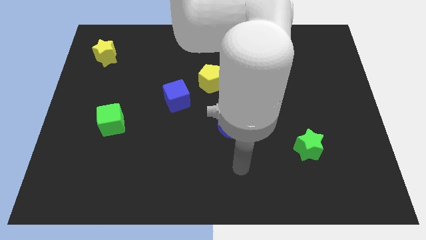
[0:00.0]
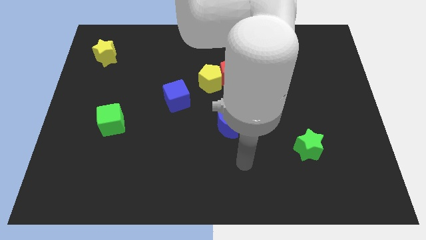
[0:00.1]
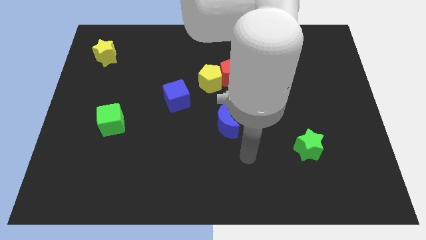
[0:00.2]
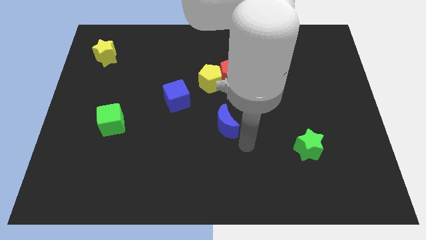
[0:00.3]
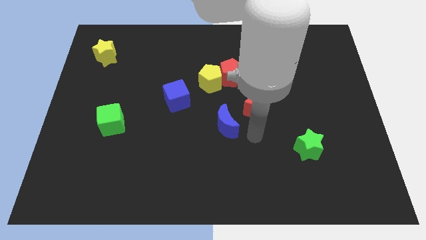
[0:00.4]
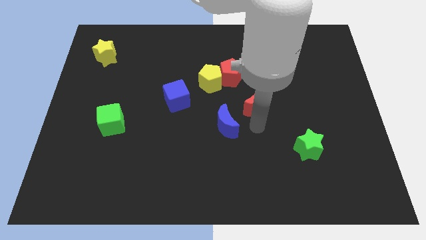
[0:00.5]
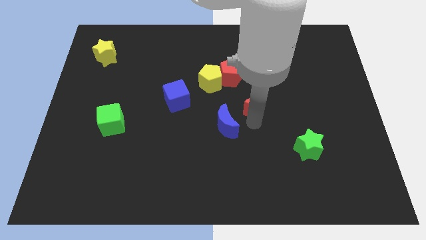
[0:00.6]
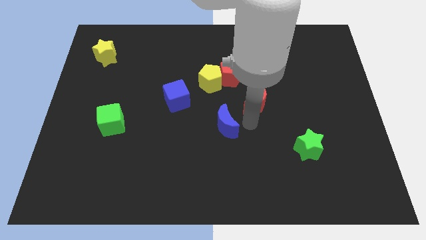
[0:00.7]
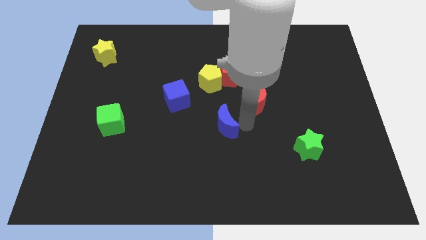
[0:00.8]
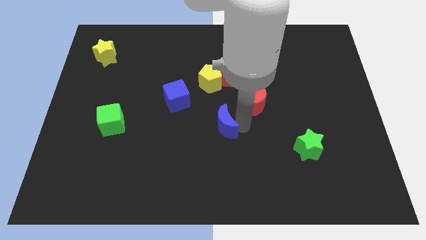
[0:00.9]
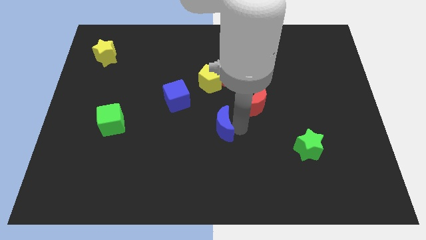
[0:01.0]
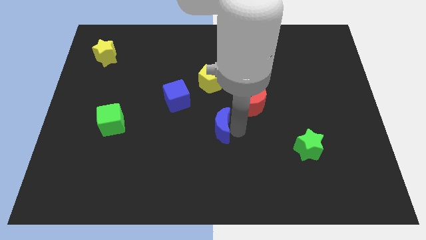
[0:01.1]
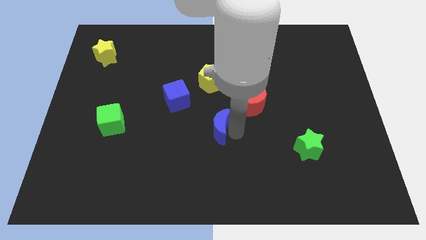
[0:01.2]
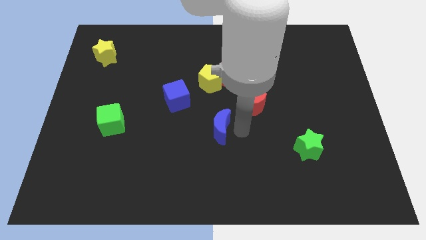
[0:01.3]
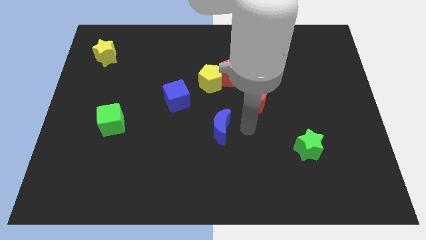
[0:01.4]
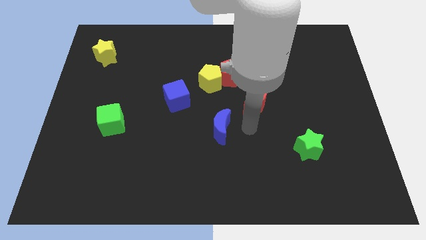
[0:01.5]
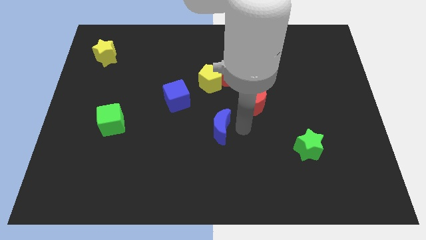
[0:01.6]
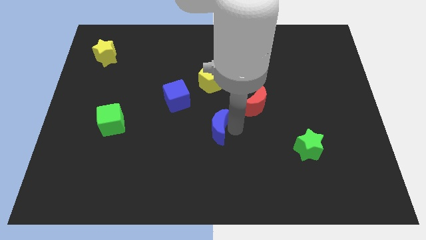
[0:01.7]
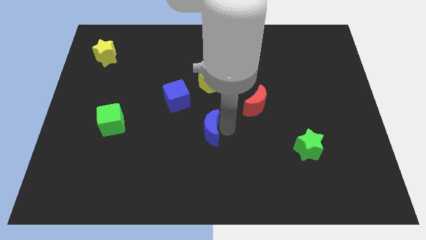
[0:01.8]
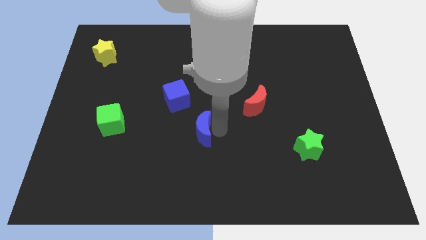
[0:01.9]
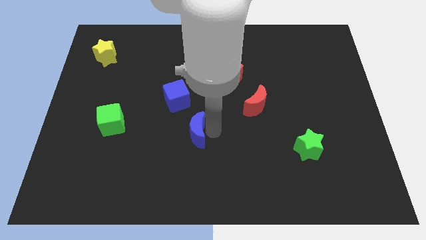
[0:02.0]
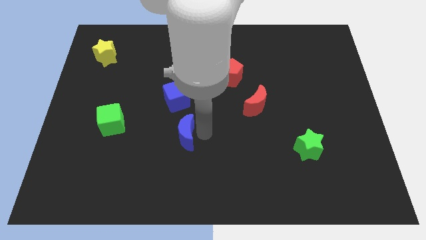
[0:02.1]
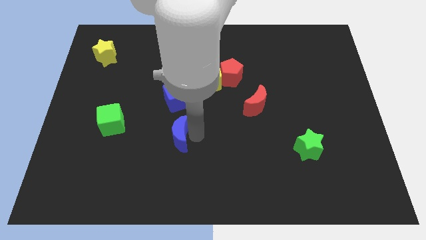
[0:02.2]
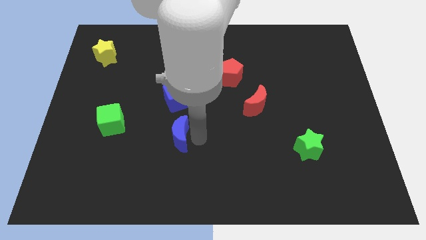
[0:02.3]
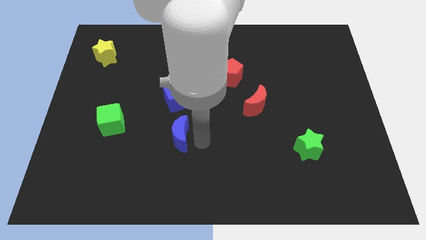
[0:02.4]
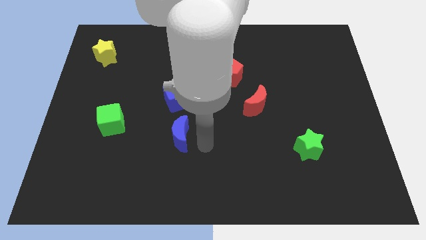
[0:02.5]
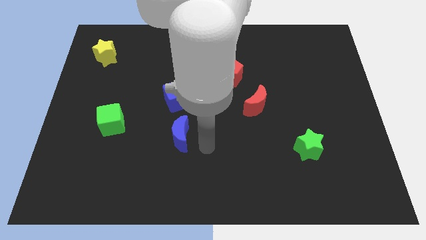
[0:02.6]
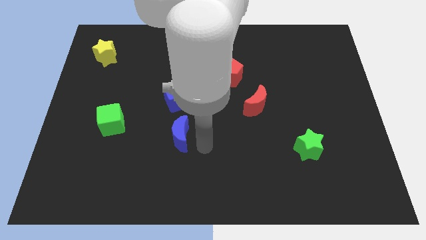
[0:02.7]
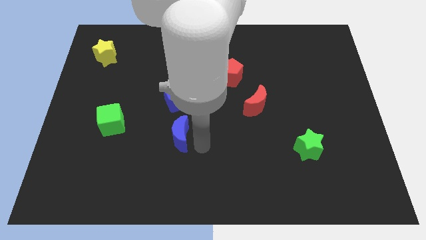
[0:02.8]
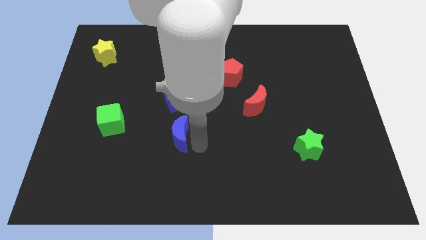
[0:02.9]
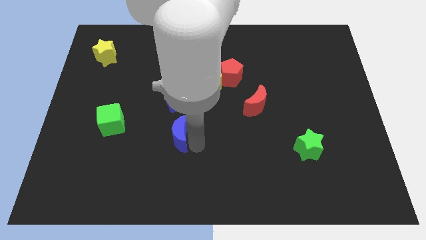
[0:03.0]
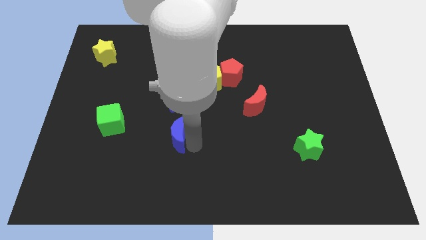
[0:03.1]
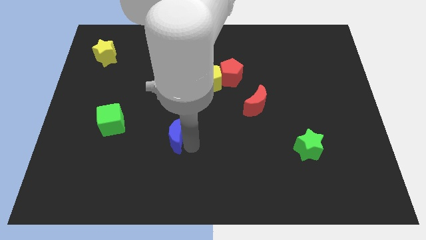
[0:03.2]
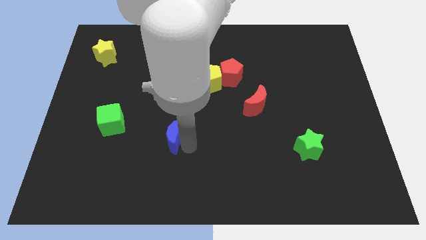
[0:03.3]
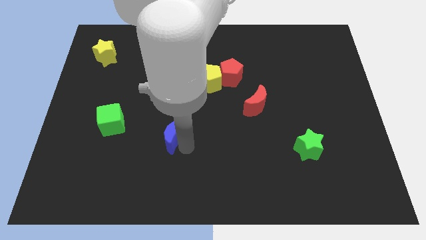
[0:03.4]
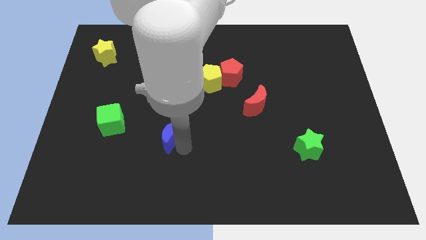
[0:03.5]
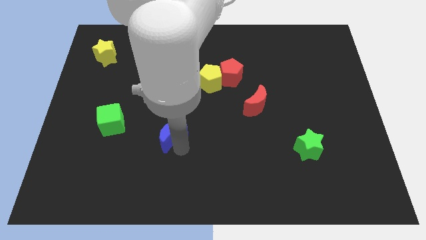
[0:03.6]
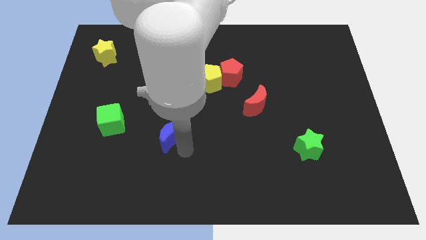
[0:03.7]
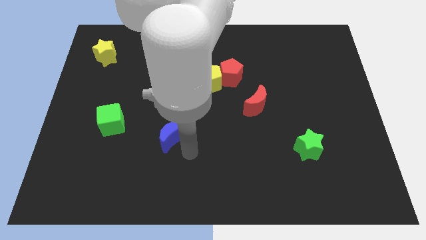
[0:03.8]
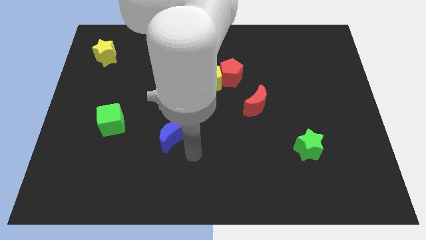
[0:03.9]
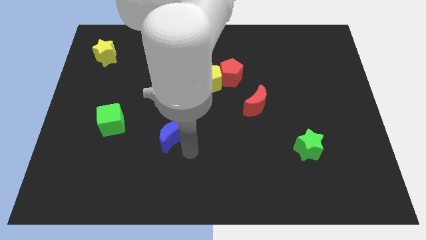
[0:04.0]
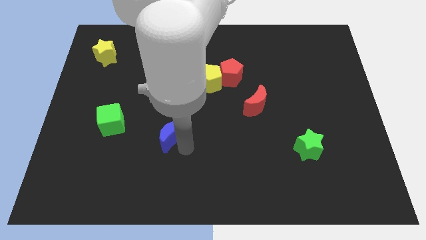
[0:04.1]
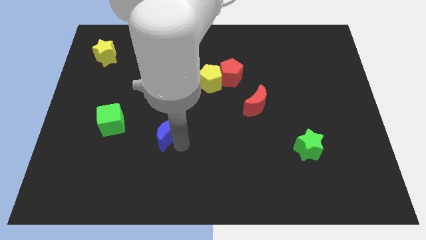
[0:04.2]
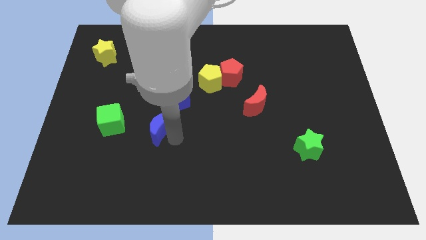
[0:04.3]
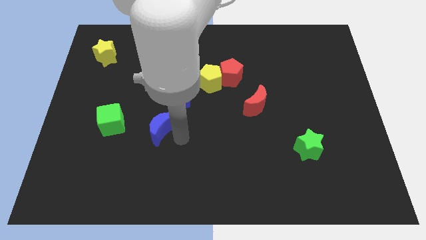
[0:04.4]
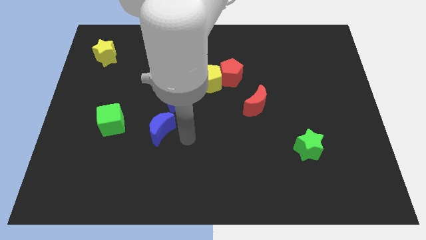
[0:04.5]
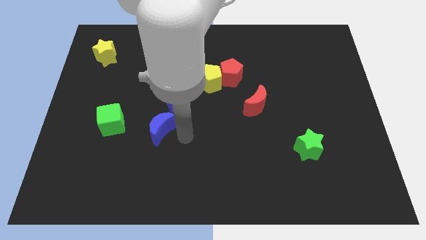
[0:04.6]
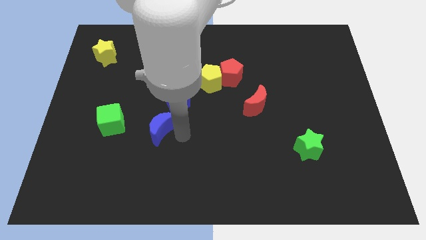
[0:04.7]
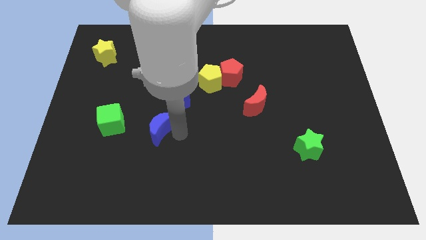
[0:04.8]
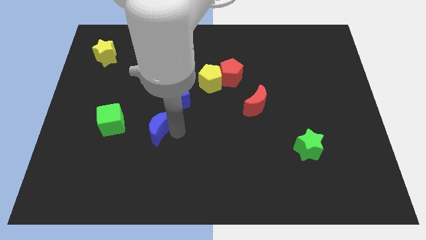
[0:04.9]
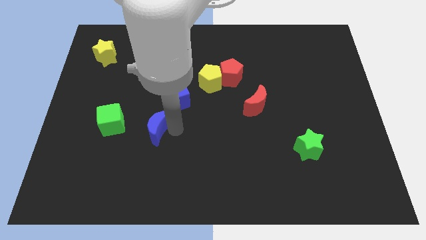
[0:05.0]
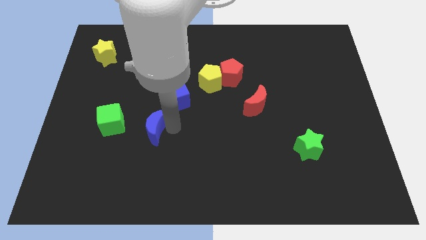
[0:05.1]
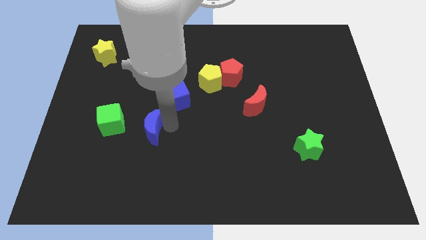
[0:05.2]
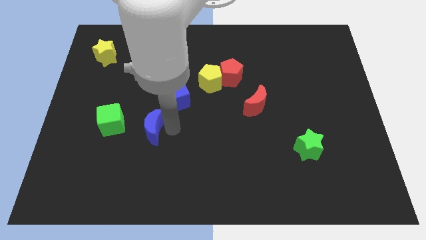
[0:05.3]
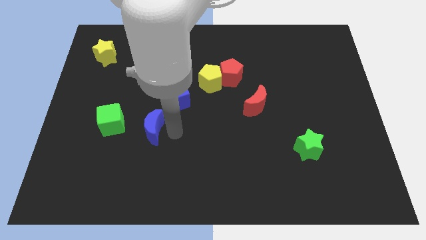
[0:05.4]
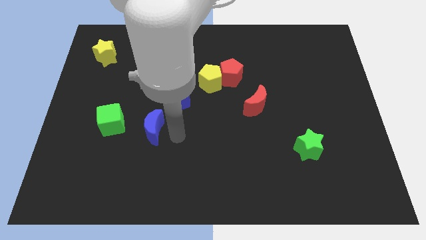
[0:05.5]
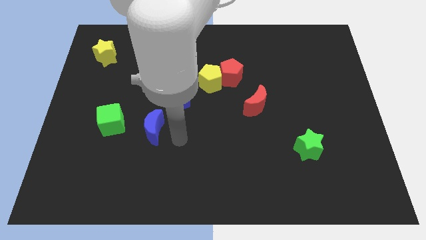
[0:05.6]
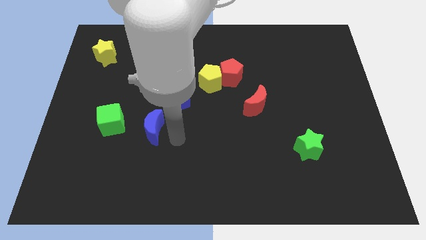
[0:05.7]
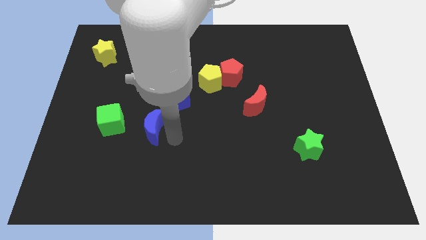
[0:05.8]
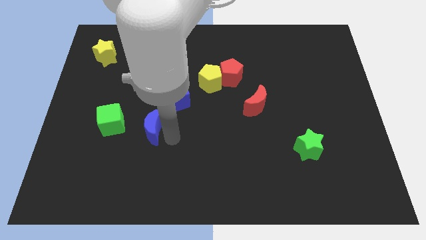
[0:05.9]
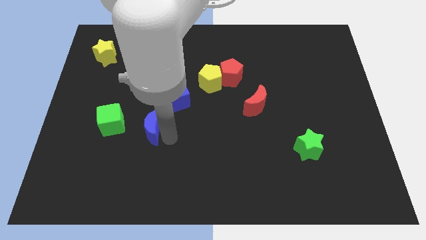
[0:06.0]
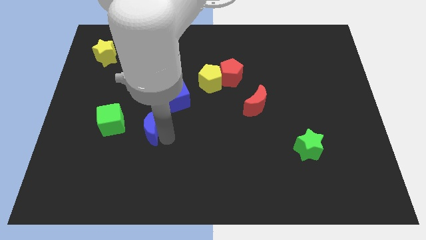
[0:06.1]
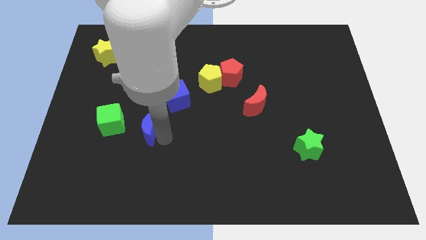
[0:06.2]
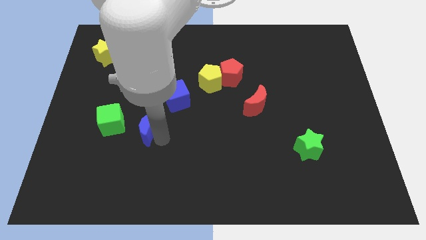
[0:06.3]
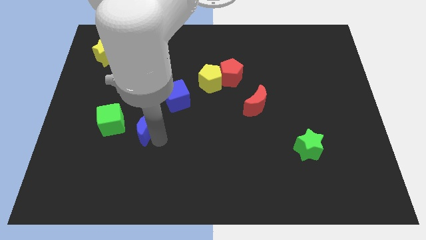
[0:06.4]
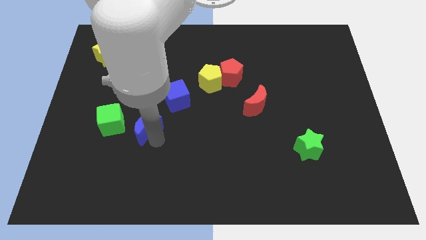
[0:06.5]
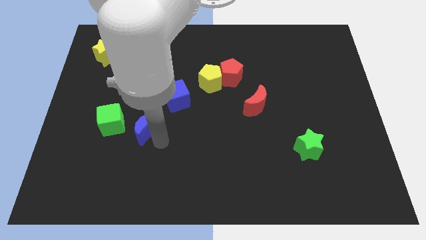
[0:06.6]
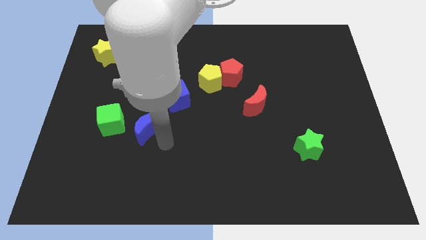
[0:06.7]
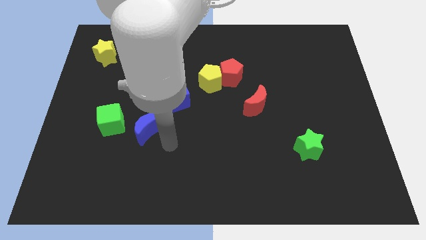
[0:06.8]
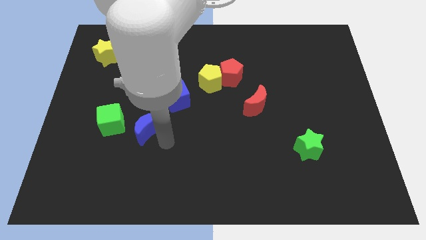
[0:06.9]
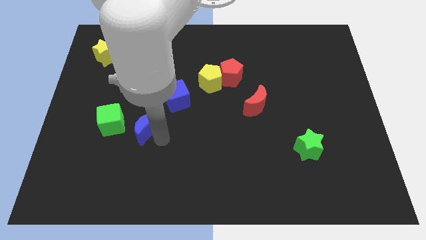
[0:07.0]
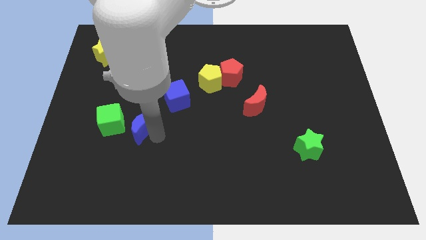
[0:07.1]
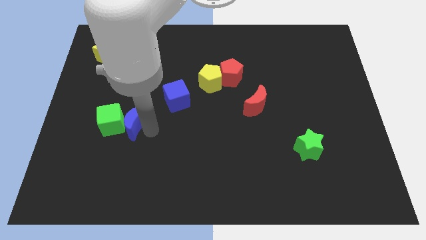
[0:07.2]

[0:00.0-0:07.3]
slide the blue moon next to the green cube
